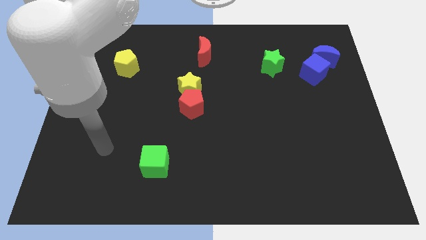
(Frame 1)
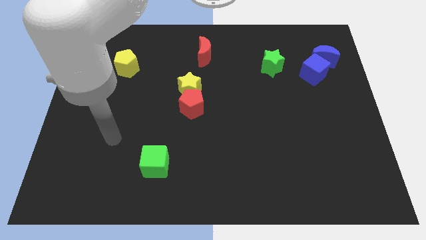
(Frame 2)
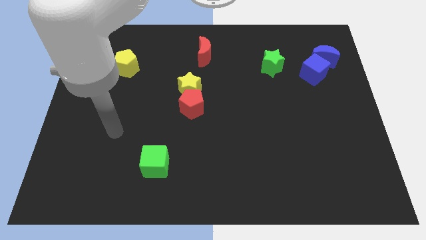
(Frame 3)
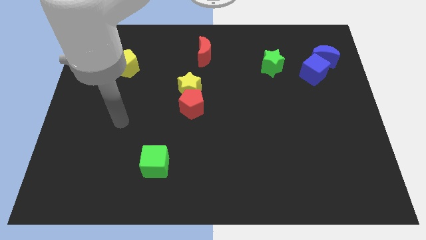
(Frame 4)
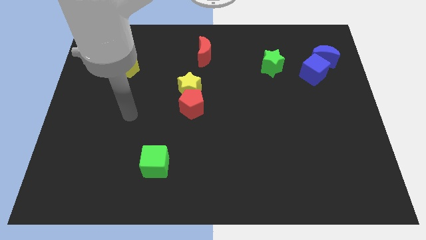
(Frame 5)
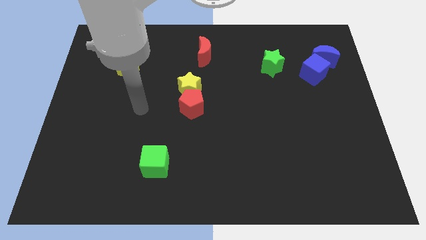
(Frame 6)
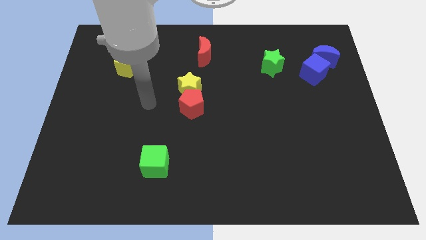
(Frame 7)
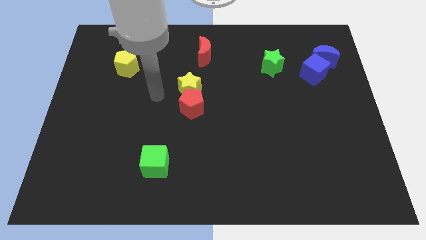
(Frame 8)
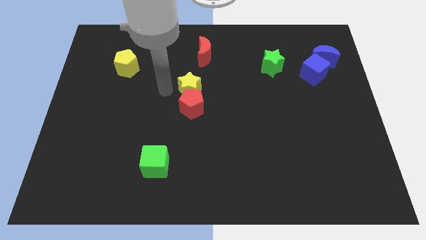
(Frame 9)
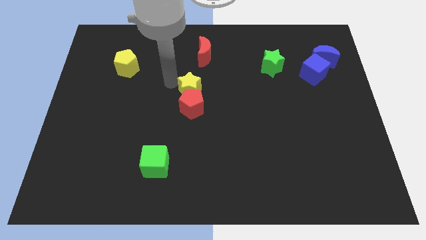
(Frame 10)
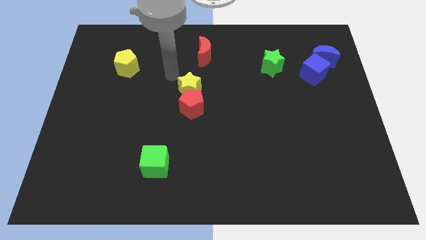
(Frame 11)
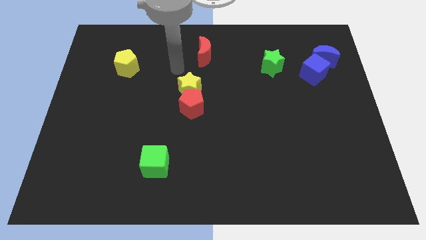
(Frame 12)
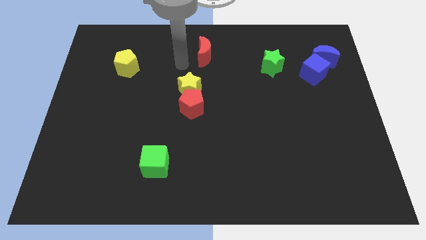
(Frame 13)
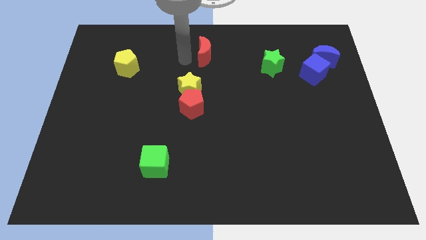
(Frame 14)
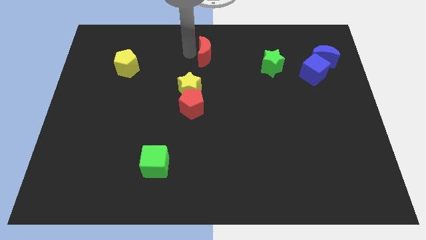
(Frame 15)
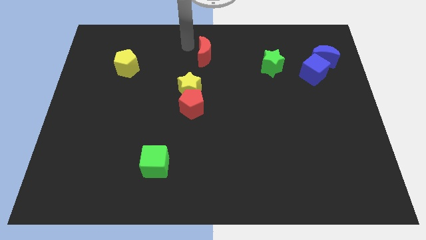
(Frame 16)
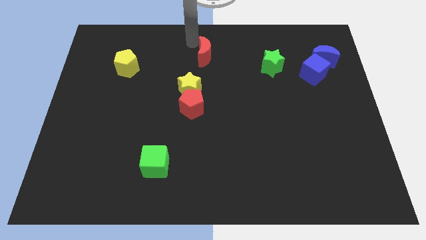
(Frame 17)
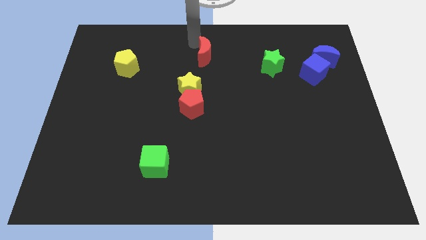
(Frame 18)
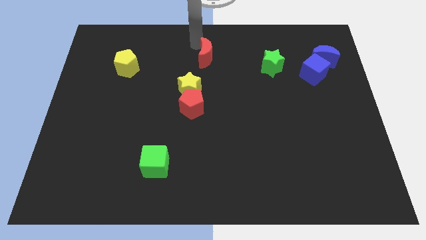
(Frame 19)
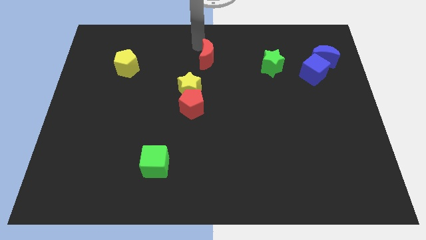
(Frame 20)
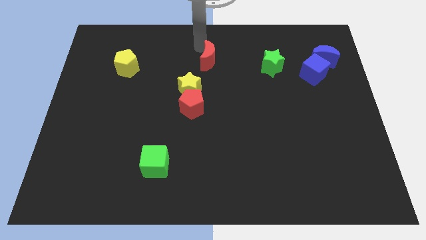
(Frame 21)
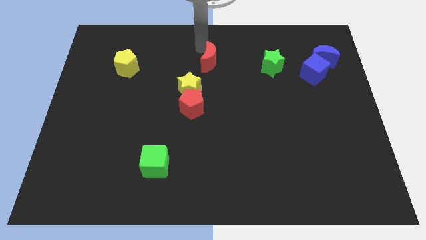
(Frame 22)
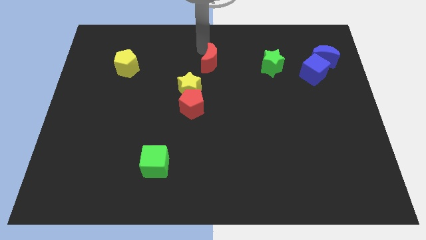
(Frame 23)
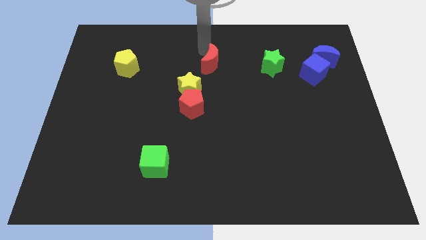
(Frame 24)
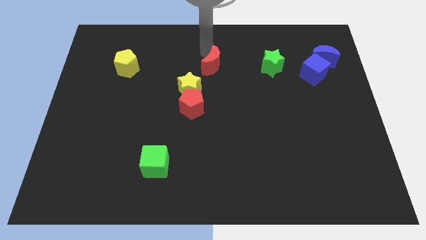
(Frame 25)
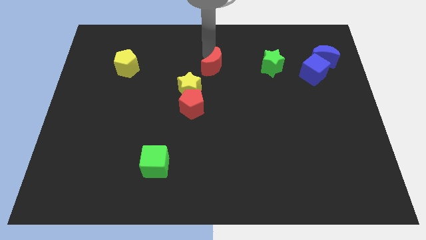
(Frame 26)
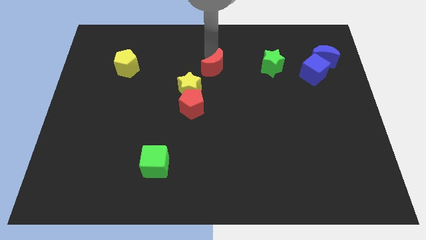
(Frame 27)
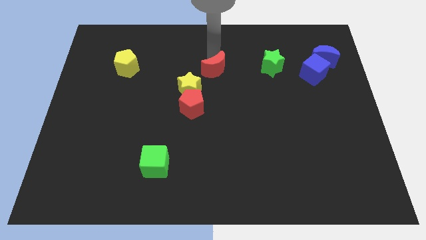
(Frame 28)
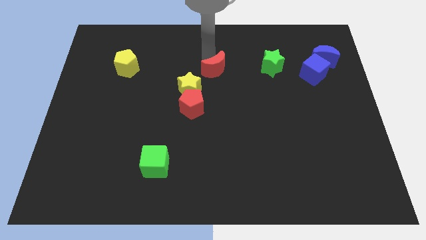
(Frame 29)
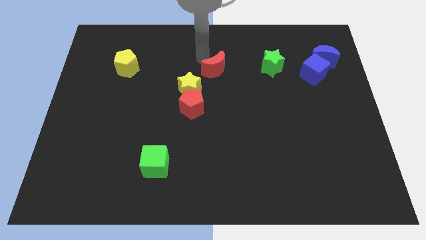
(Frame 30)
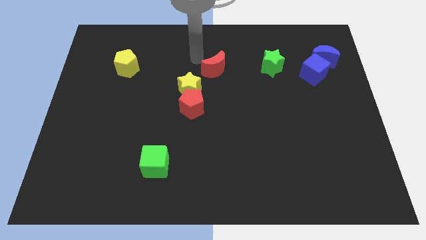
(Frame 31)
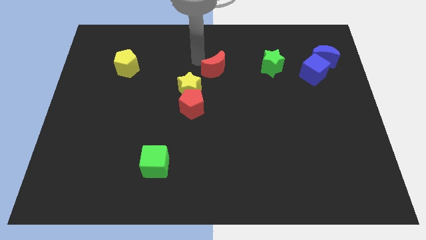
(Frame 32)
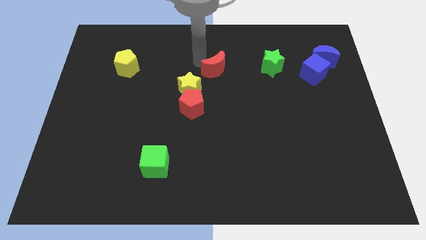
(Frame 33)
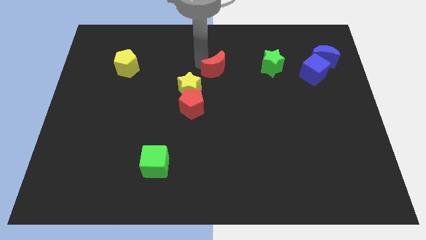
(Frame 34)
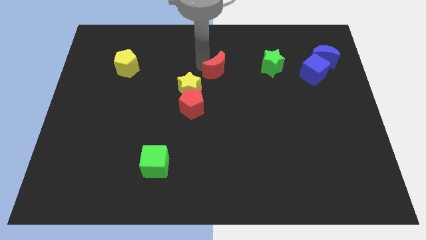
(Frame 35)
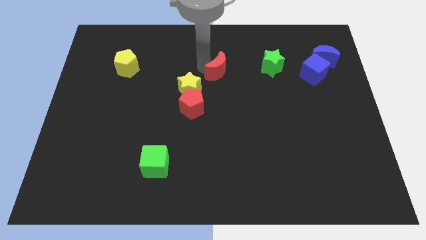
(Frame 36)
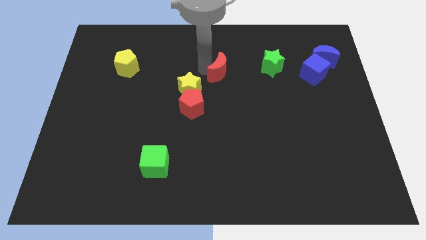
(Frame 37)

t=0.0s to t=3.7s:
move the red moon slightly diagonally downwards and right

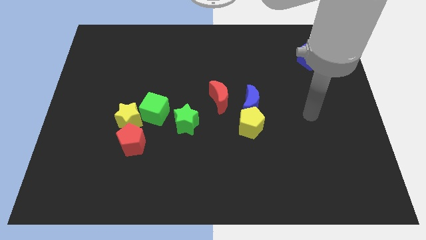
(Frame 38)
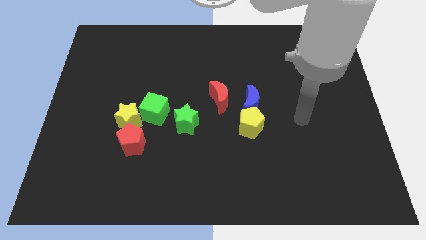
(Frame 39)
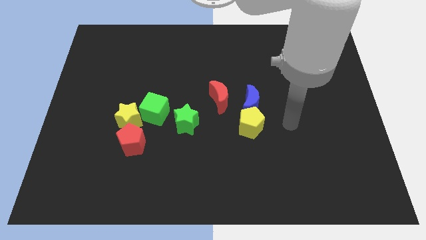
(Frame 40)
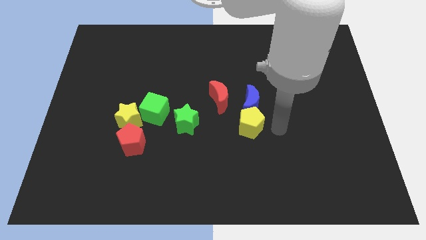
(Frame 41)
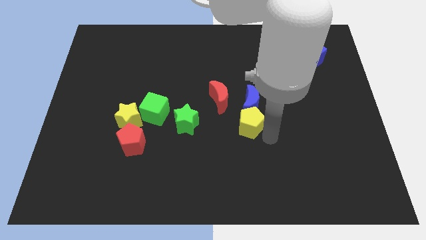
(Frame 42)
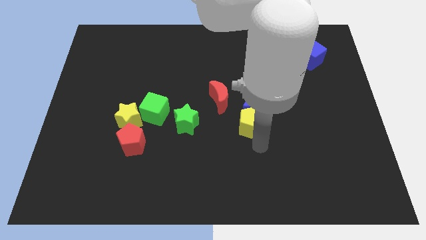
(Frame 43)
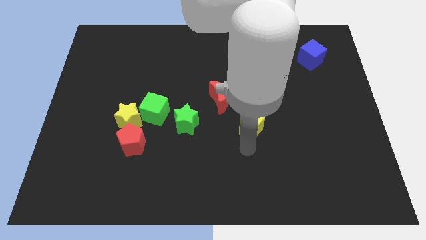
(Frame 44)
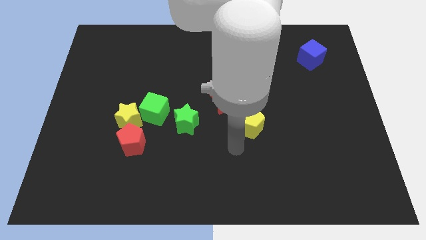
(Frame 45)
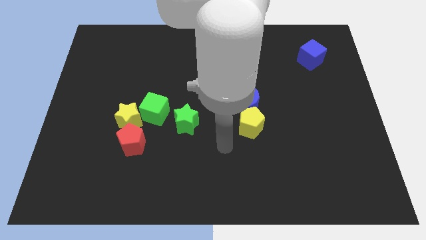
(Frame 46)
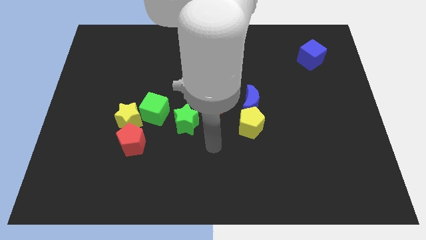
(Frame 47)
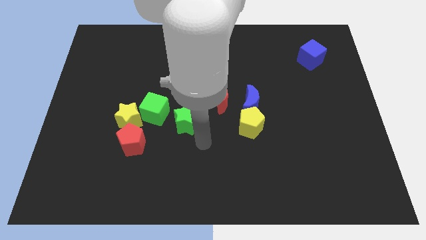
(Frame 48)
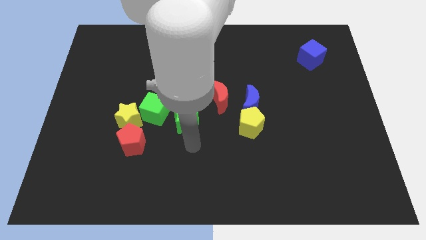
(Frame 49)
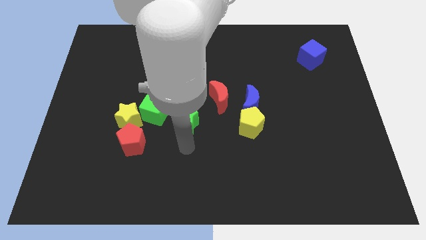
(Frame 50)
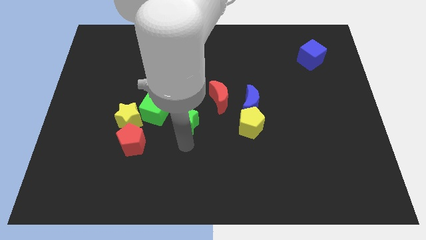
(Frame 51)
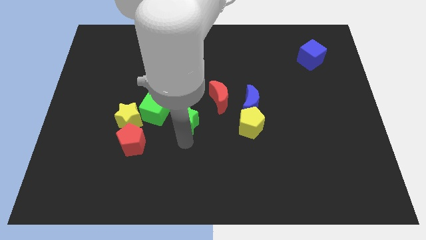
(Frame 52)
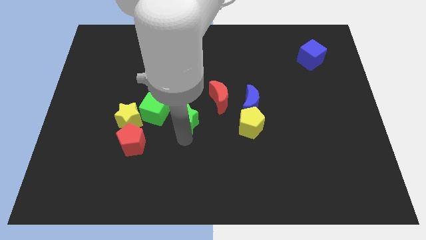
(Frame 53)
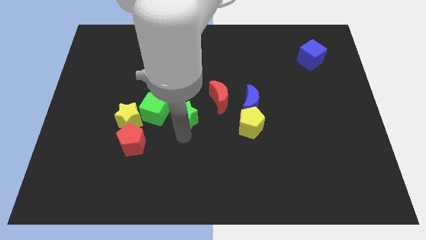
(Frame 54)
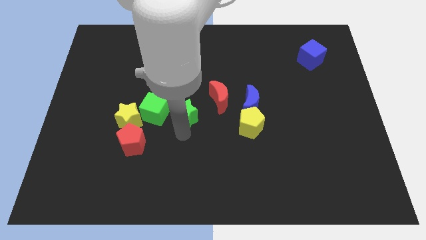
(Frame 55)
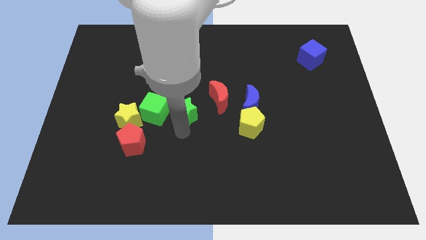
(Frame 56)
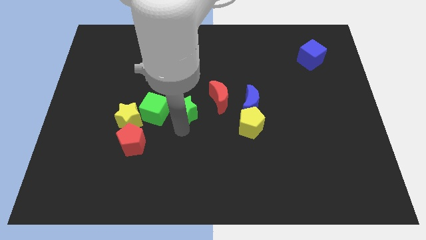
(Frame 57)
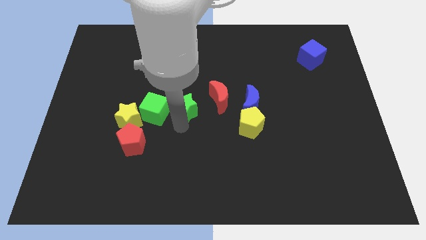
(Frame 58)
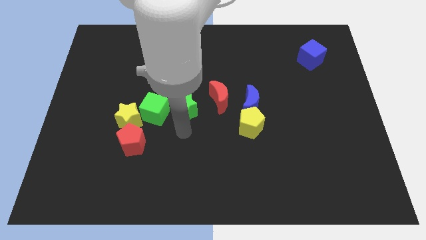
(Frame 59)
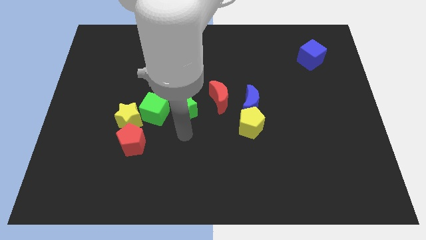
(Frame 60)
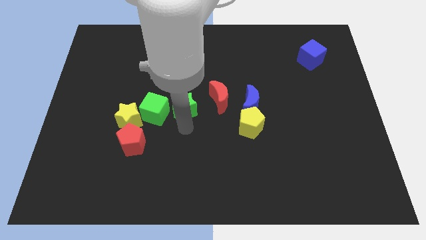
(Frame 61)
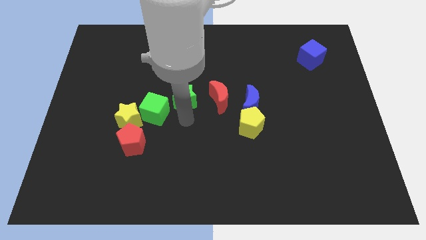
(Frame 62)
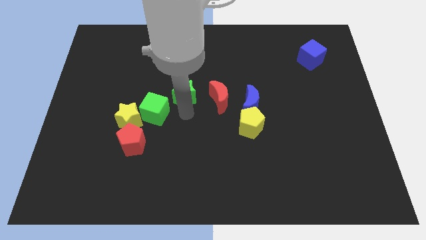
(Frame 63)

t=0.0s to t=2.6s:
slightly slide the green star upwards

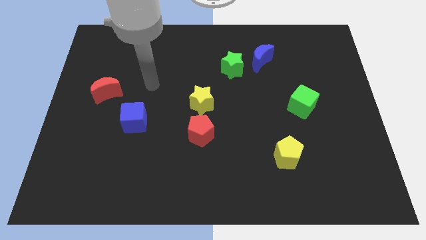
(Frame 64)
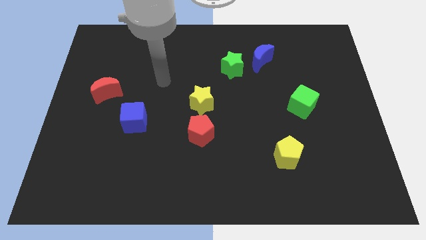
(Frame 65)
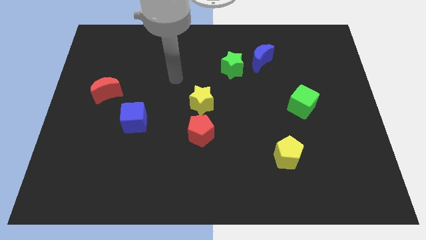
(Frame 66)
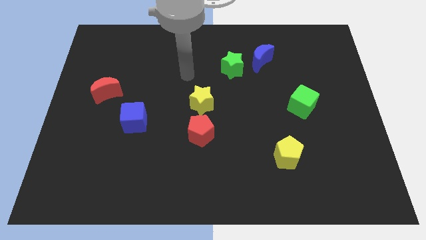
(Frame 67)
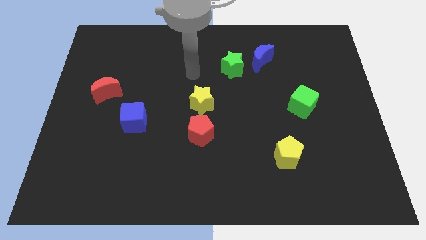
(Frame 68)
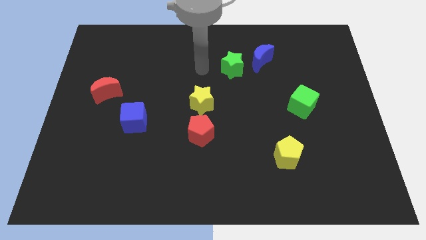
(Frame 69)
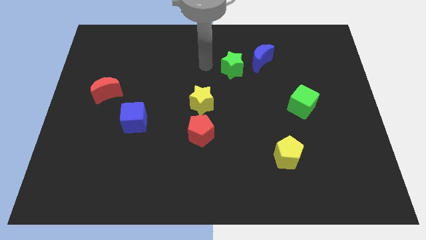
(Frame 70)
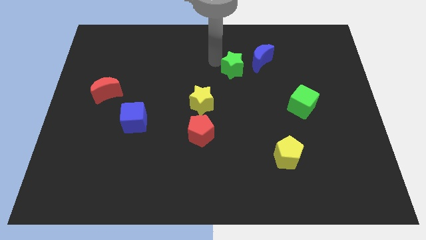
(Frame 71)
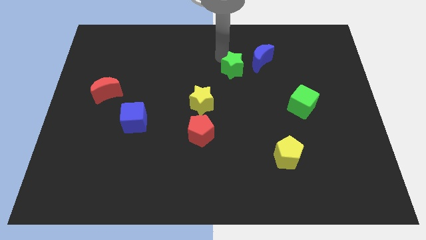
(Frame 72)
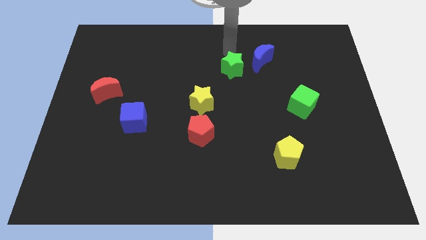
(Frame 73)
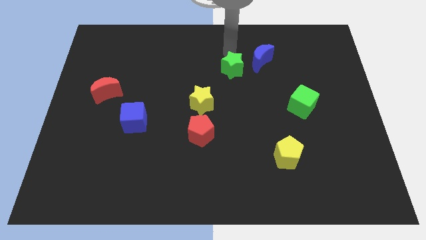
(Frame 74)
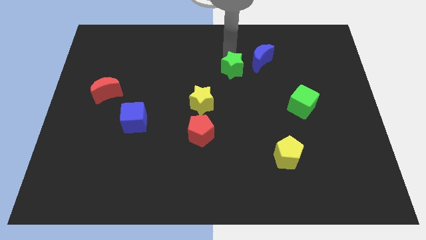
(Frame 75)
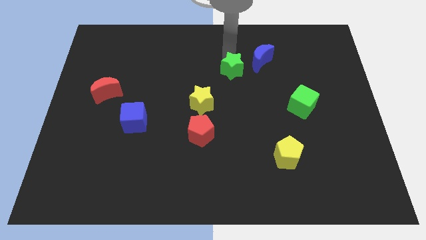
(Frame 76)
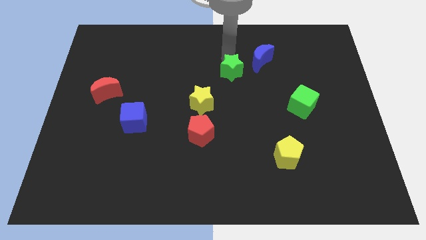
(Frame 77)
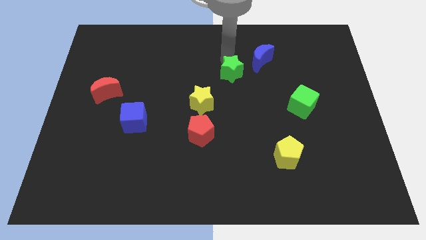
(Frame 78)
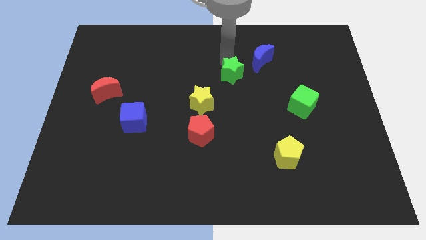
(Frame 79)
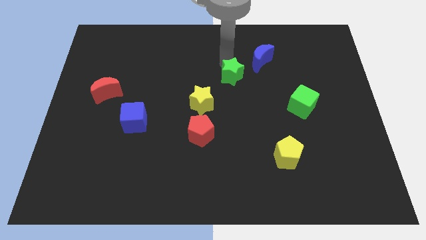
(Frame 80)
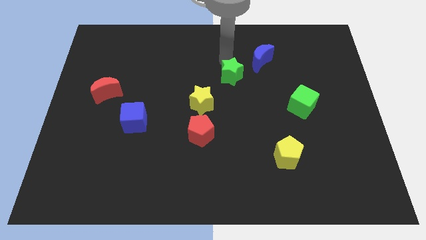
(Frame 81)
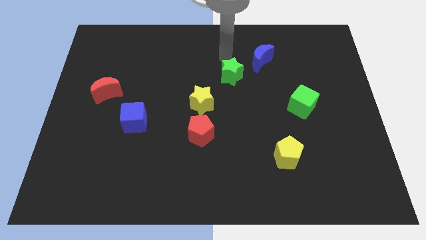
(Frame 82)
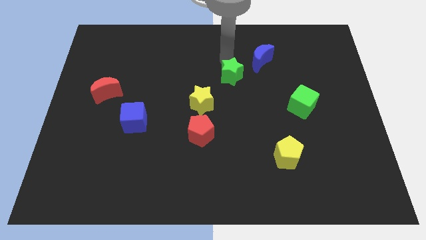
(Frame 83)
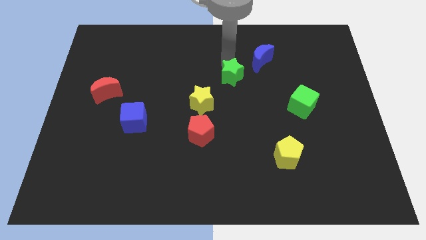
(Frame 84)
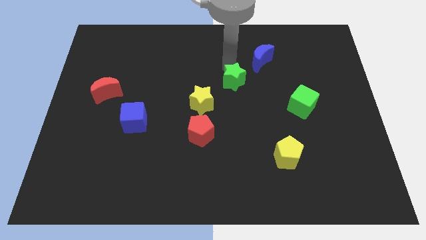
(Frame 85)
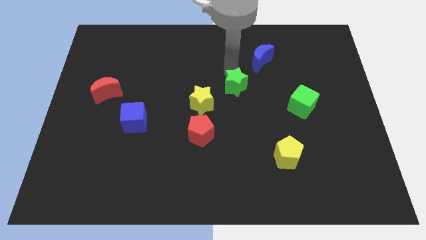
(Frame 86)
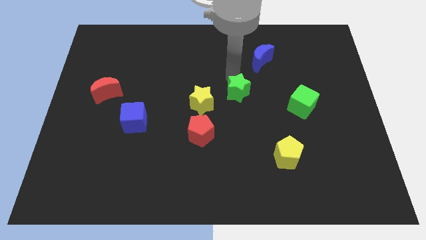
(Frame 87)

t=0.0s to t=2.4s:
move the green star a little downwards
